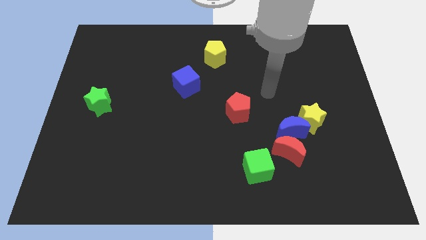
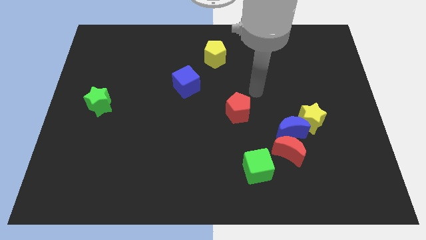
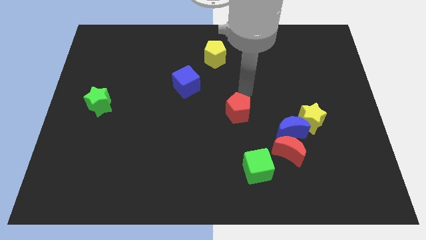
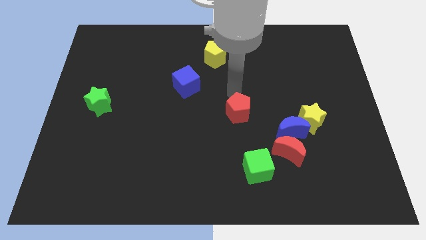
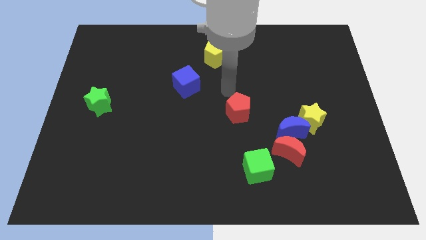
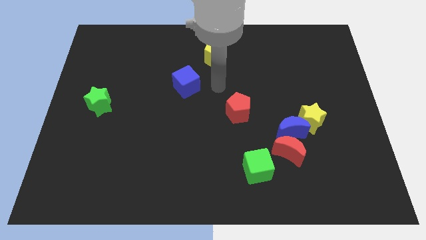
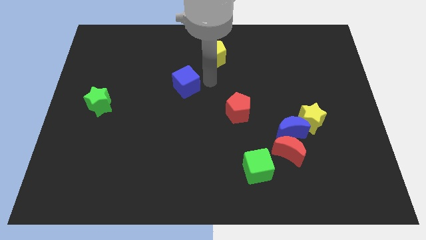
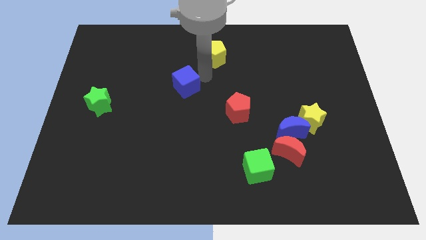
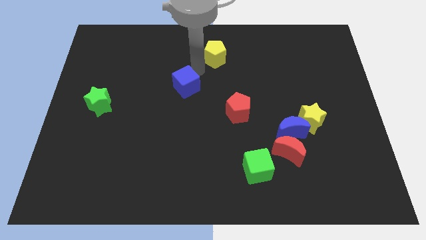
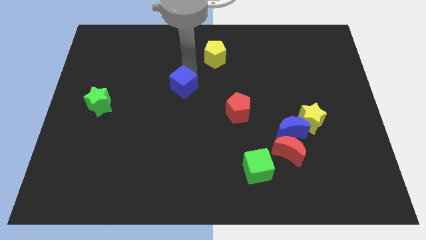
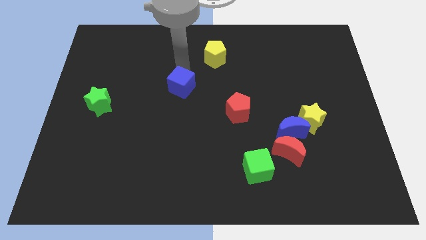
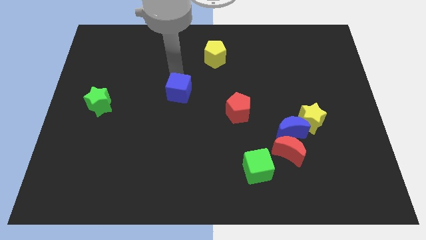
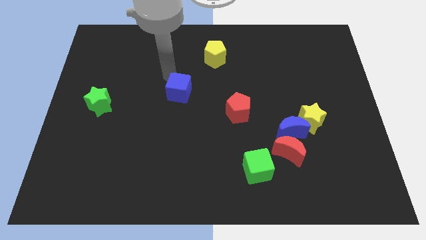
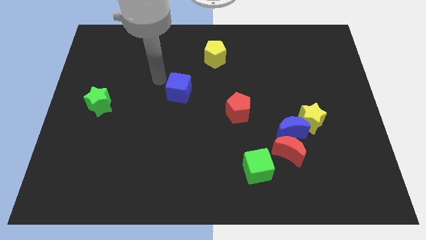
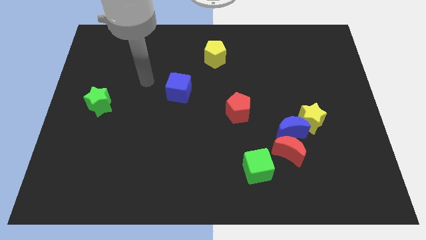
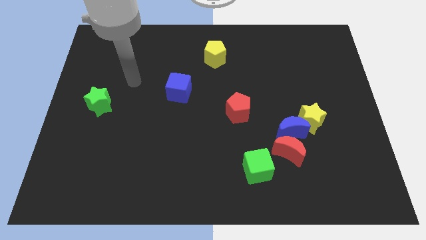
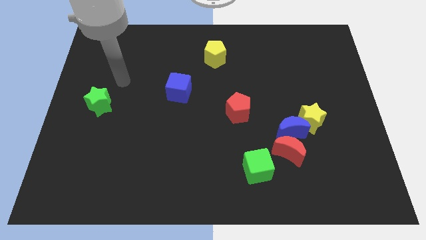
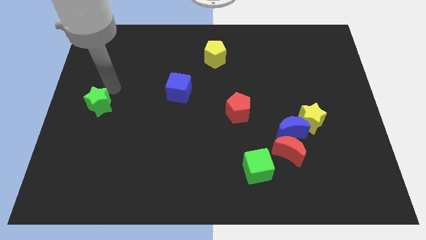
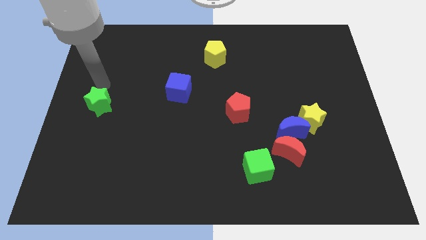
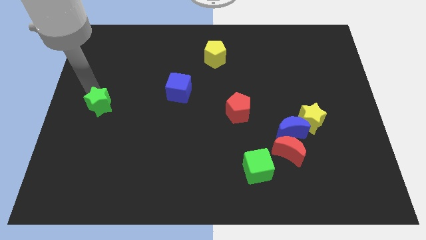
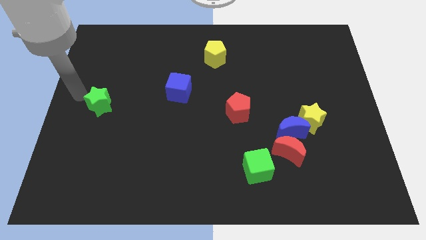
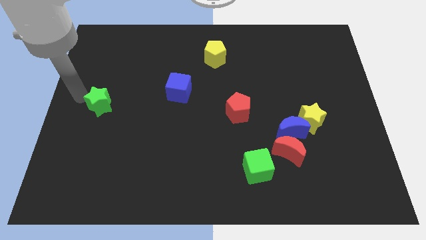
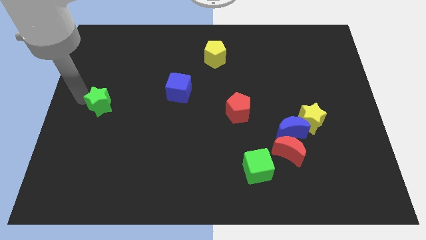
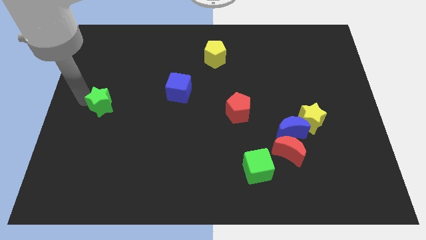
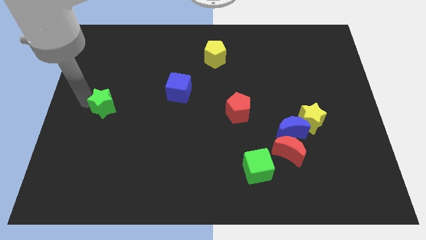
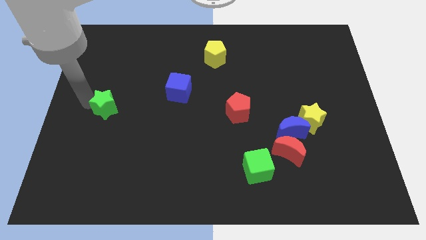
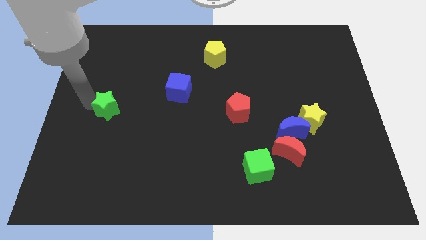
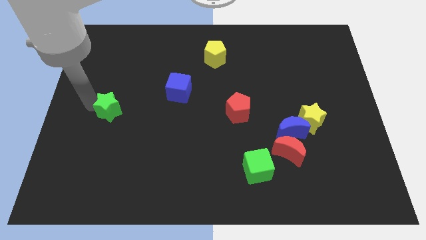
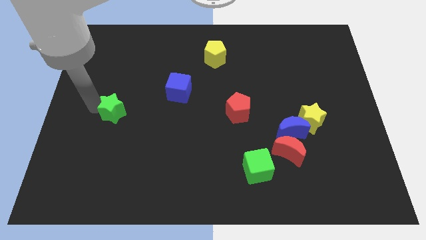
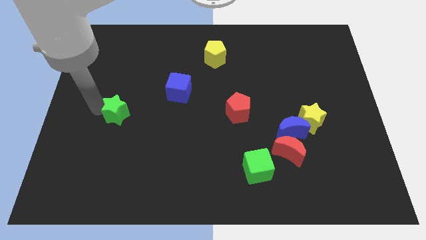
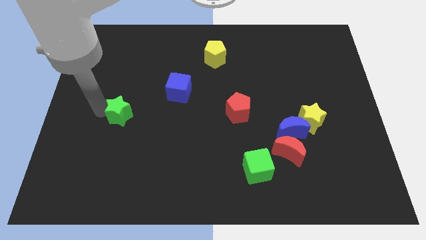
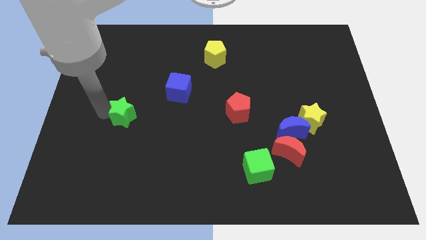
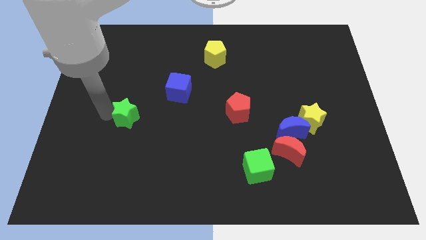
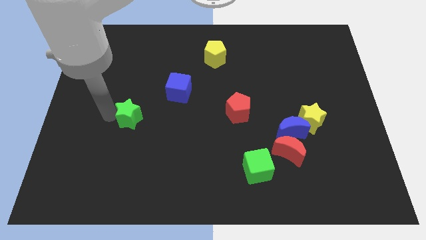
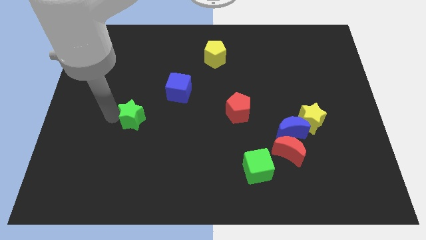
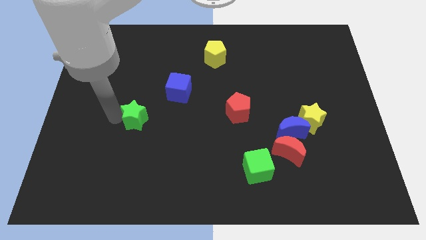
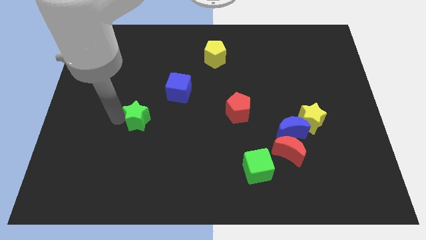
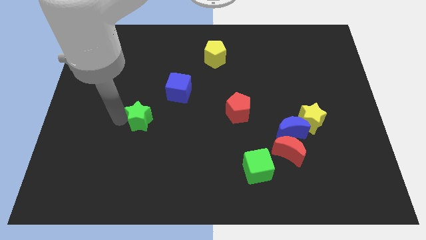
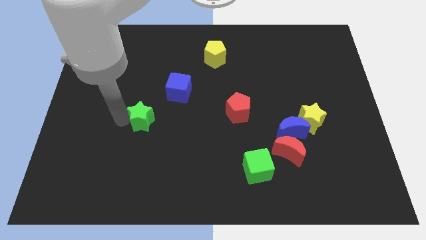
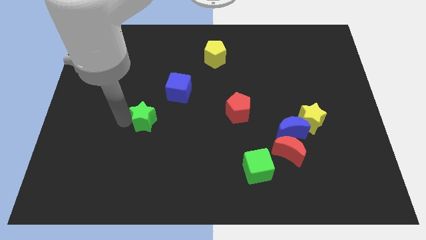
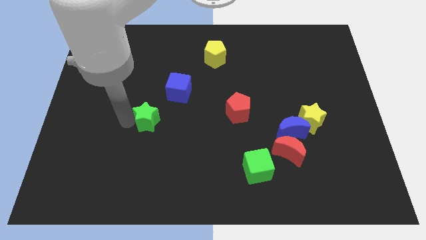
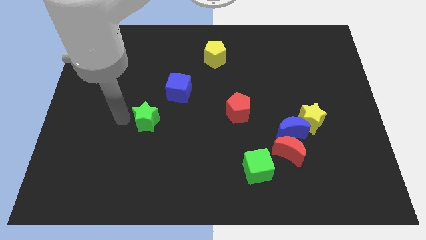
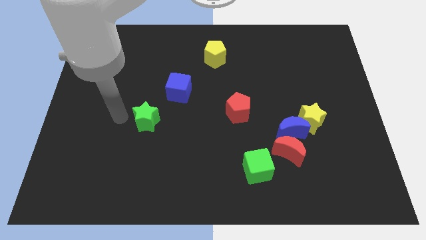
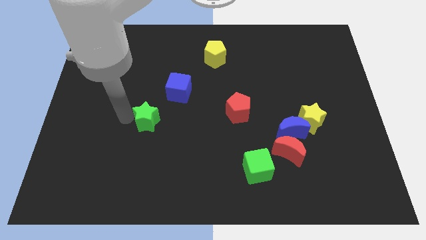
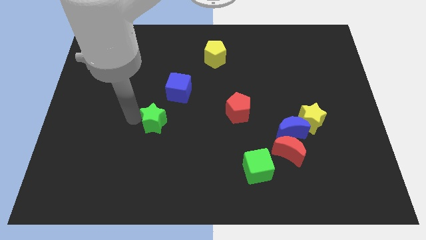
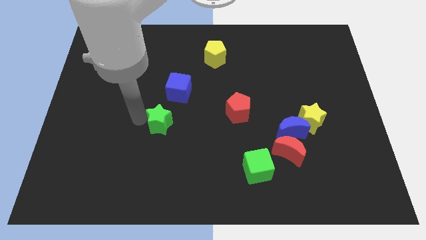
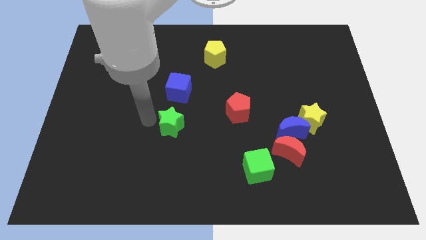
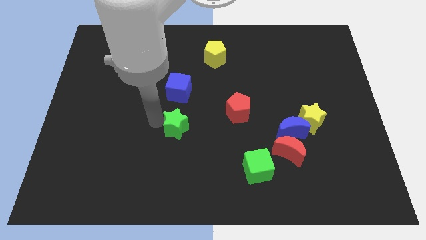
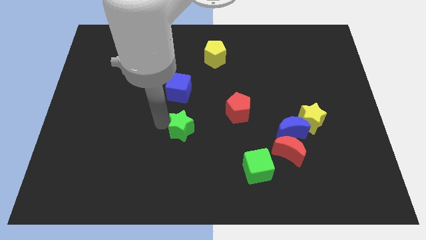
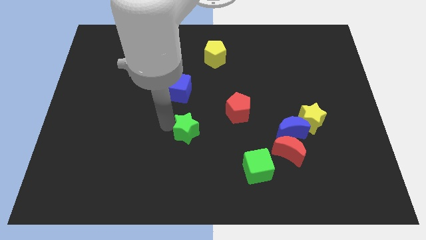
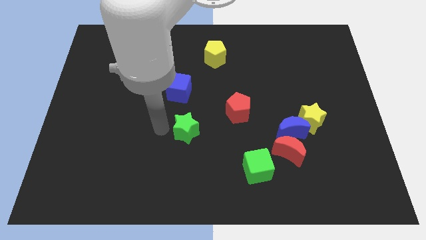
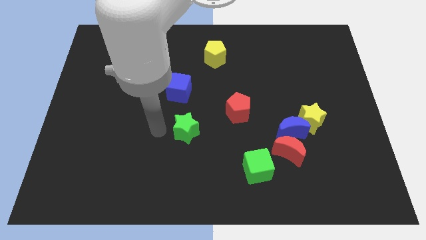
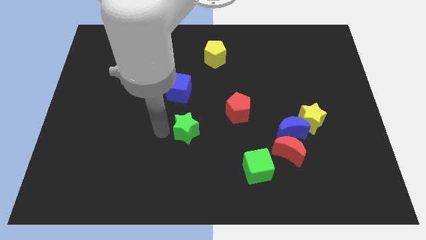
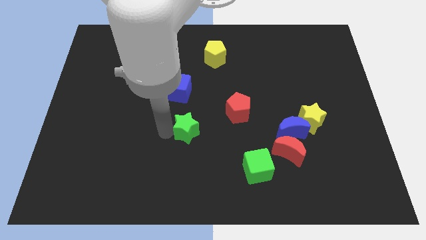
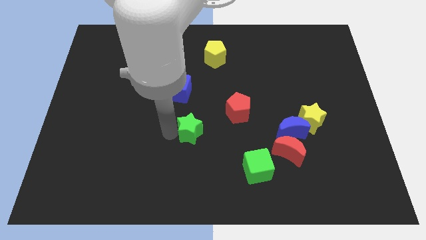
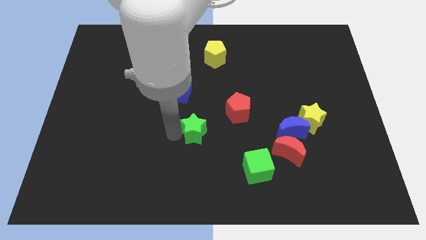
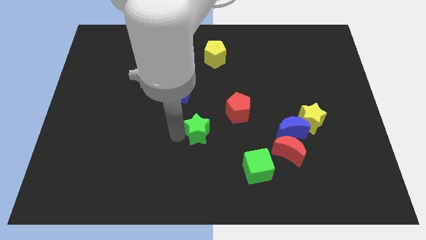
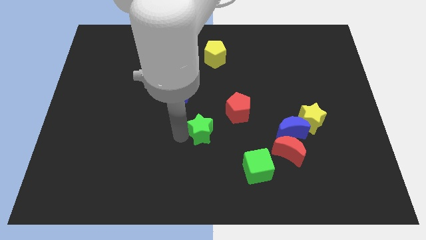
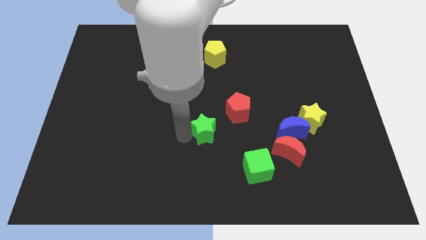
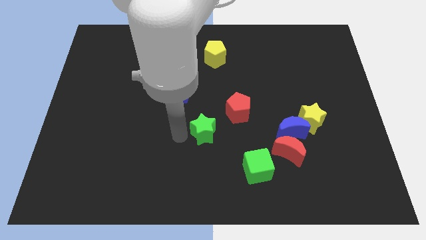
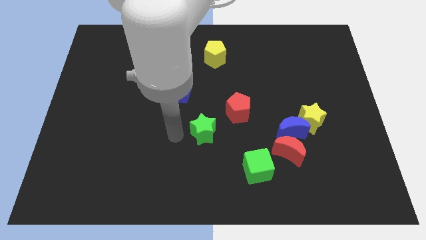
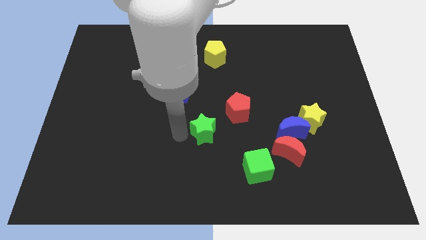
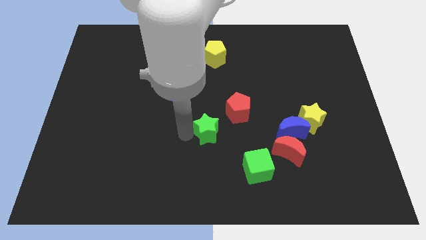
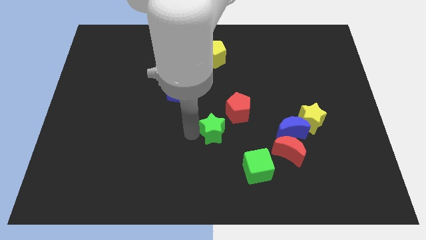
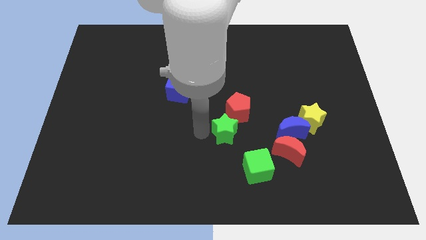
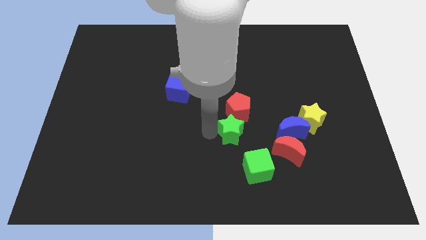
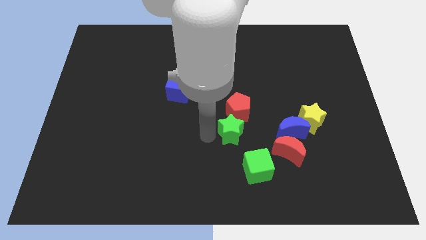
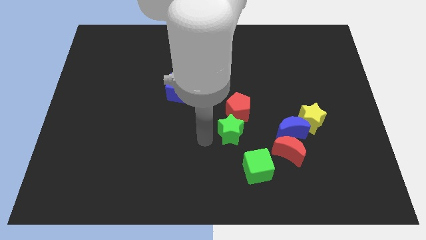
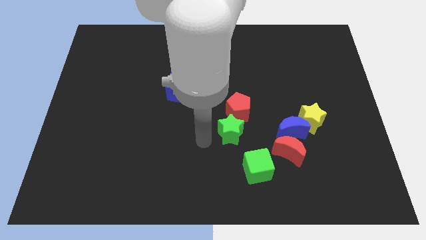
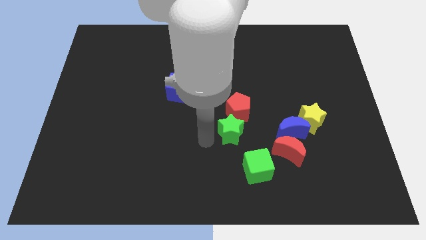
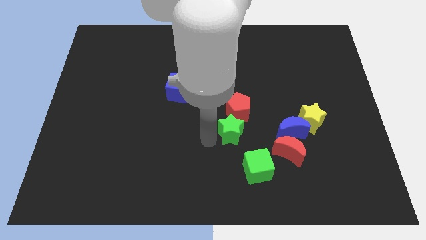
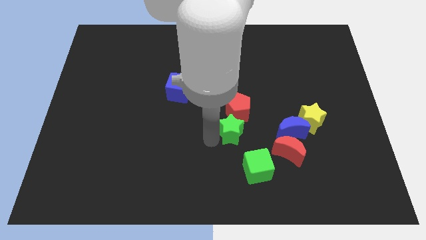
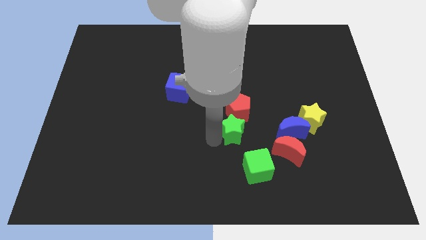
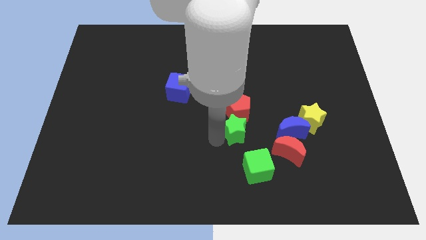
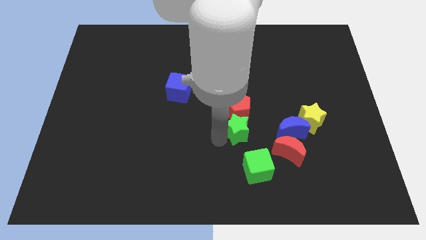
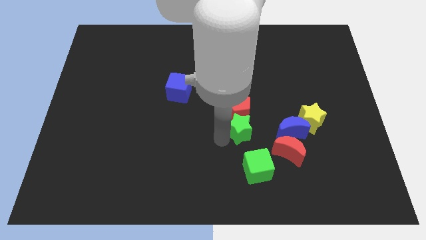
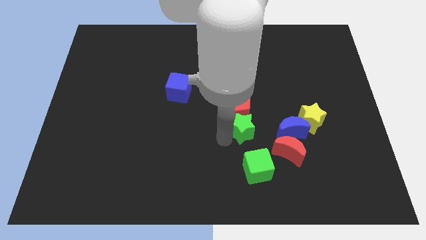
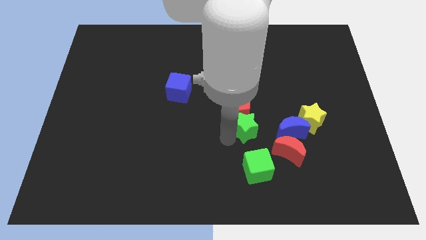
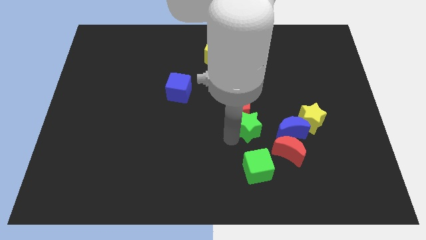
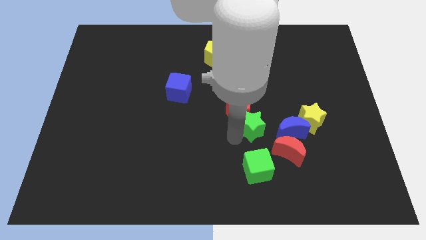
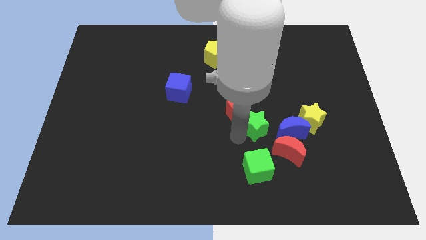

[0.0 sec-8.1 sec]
move the green star to the top left of the blue moon
